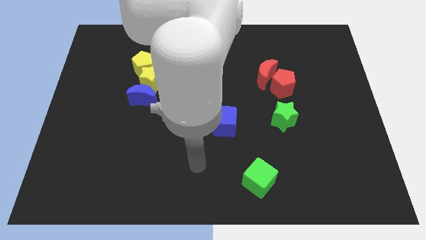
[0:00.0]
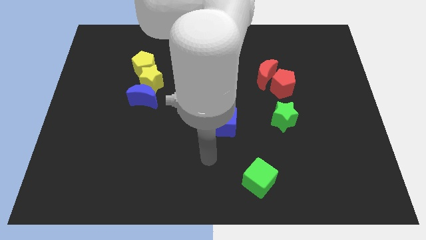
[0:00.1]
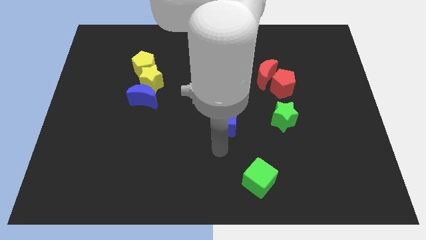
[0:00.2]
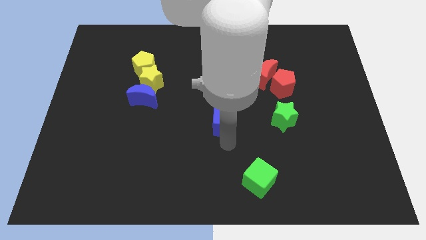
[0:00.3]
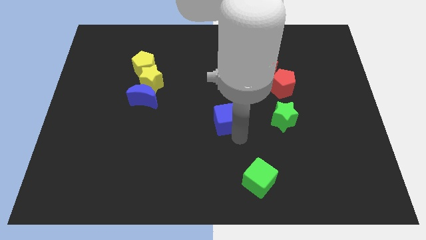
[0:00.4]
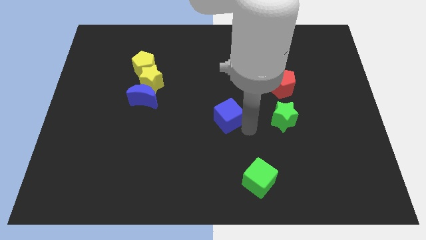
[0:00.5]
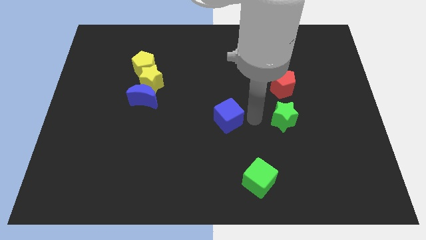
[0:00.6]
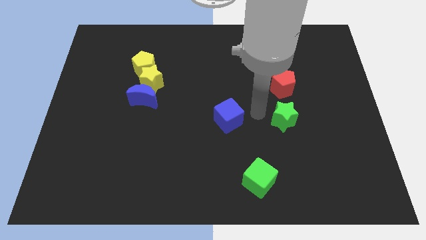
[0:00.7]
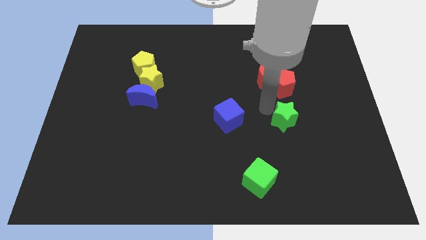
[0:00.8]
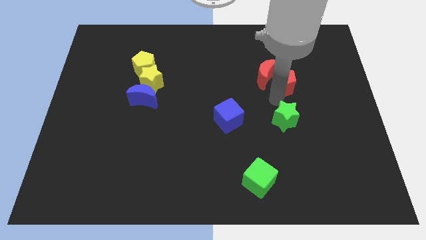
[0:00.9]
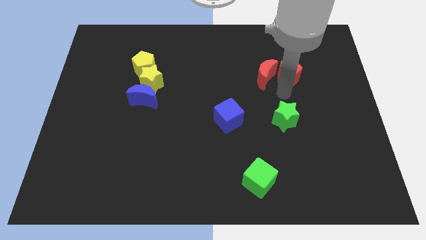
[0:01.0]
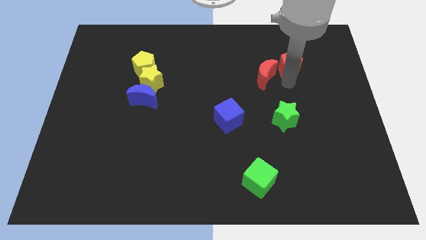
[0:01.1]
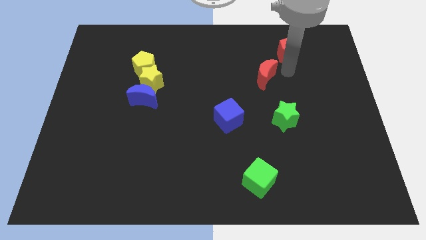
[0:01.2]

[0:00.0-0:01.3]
pull the red moon apart from the red pentagon

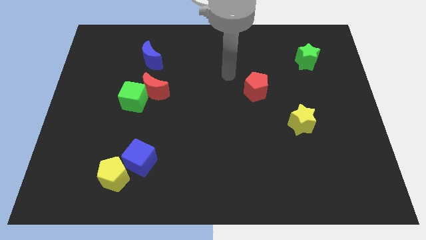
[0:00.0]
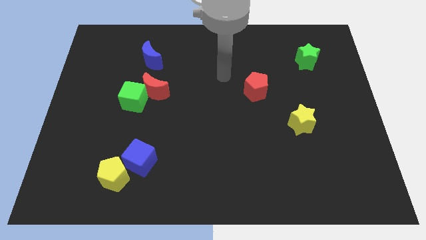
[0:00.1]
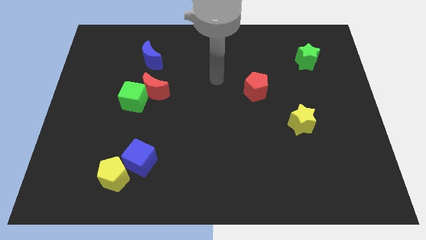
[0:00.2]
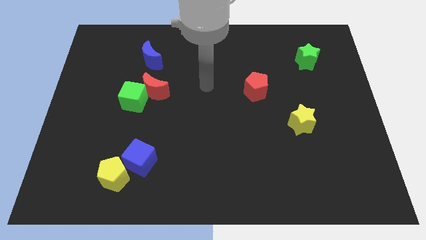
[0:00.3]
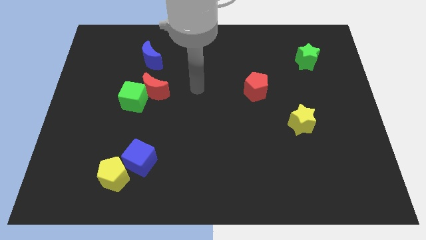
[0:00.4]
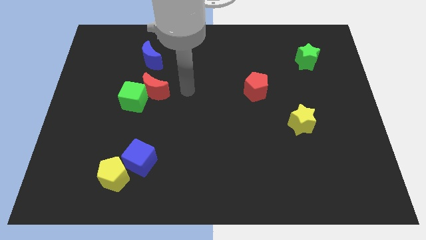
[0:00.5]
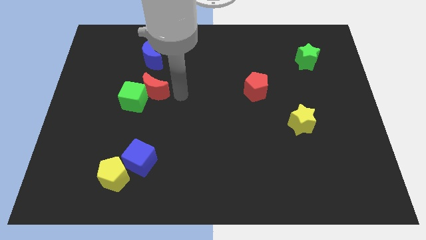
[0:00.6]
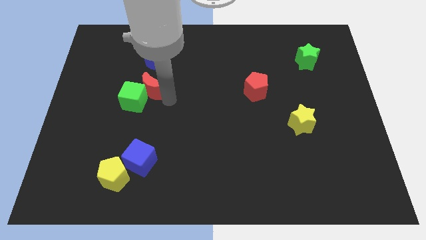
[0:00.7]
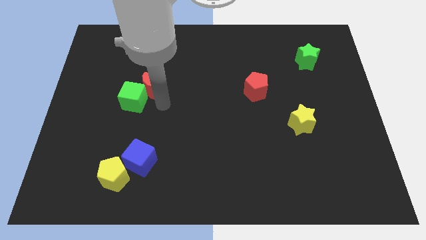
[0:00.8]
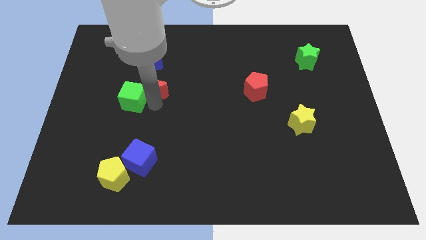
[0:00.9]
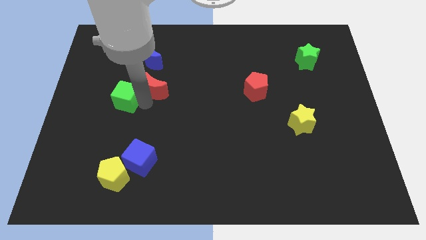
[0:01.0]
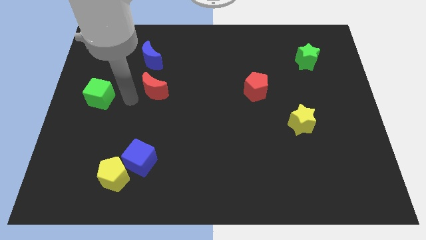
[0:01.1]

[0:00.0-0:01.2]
move the red moon away from the green cube

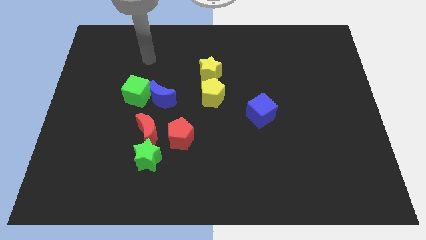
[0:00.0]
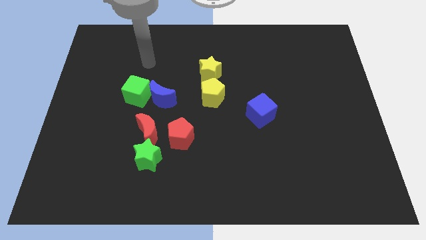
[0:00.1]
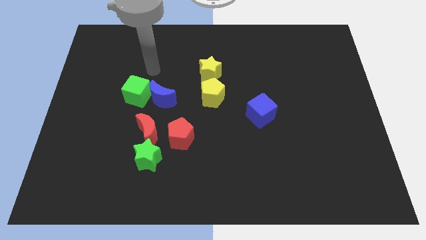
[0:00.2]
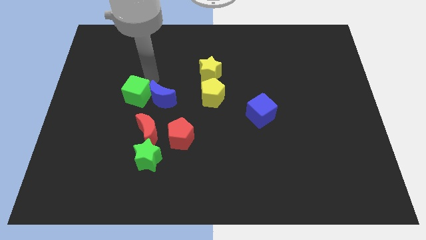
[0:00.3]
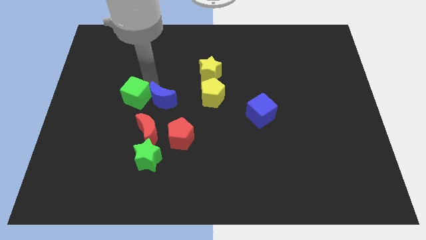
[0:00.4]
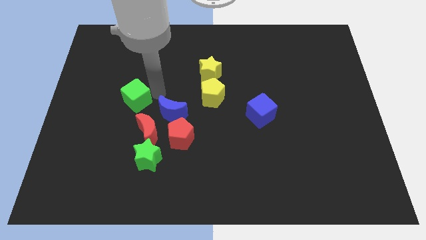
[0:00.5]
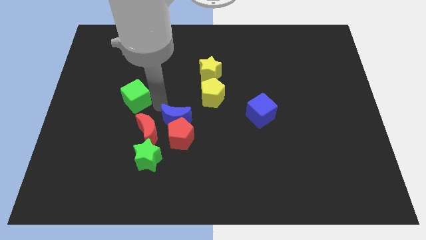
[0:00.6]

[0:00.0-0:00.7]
move the green cube away from the blue moon

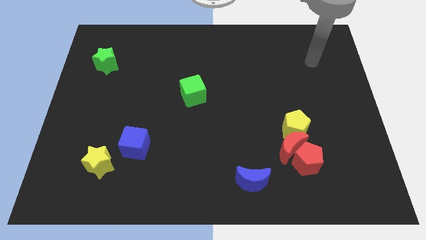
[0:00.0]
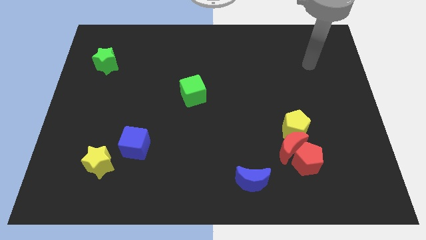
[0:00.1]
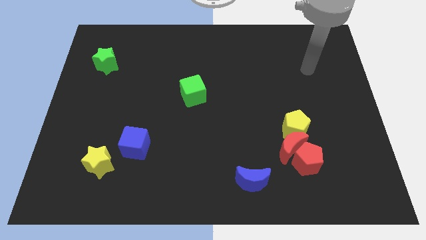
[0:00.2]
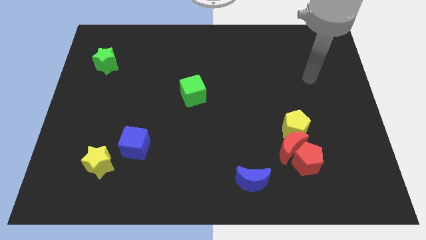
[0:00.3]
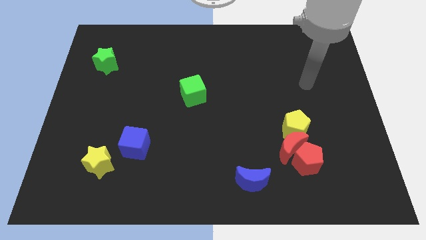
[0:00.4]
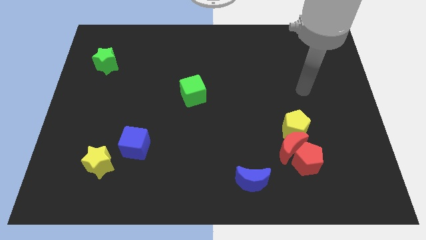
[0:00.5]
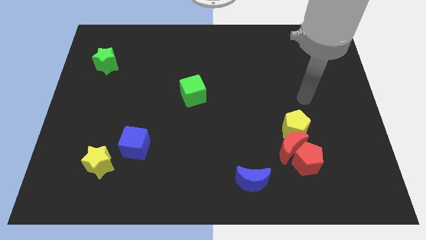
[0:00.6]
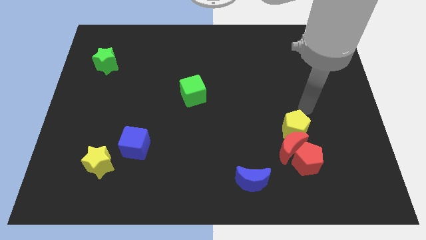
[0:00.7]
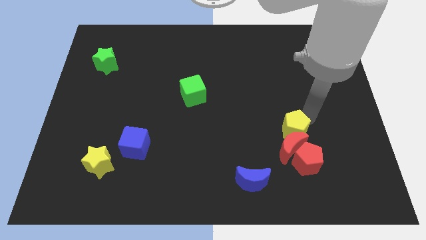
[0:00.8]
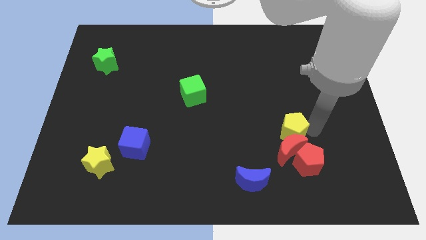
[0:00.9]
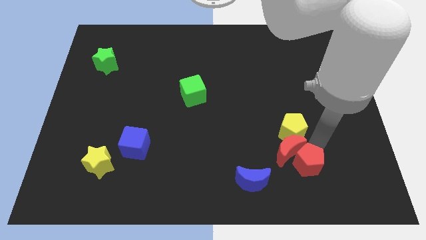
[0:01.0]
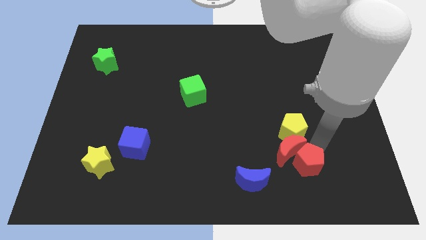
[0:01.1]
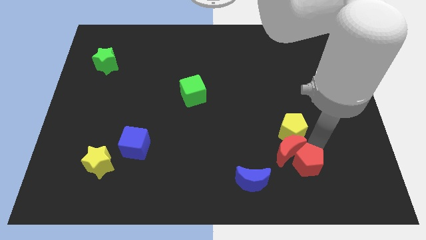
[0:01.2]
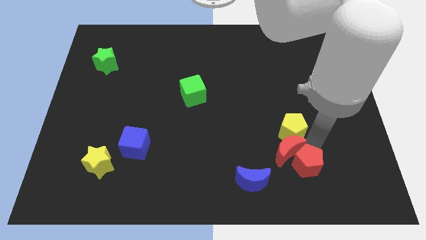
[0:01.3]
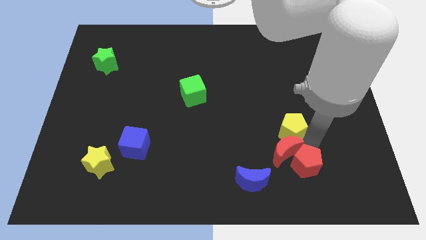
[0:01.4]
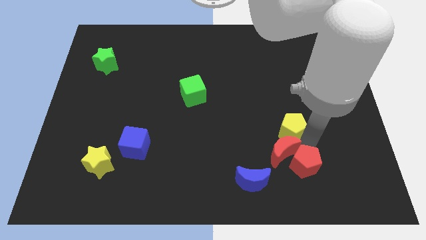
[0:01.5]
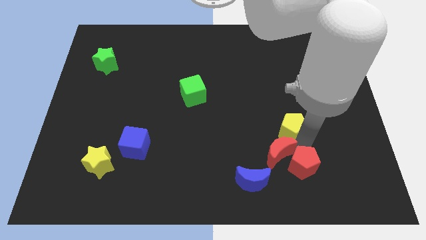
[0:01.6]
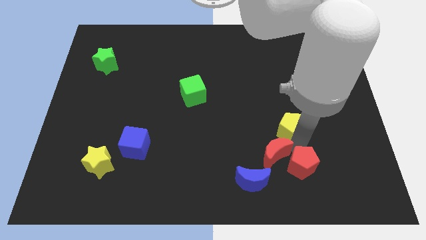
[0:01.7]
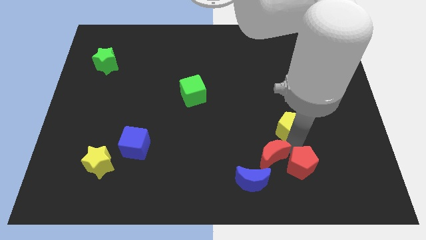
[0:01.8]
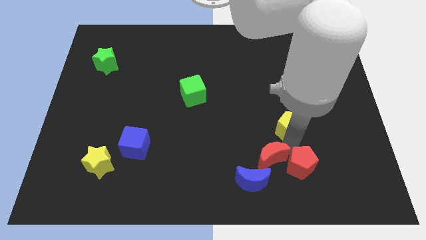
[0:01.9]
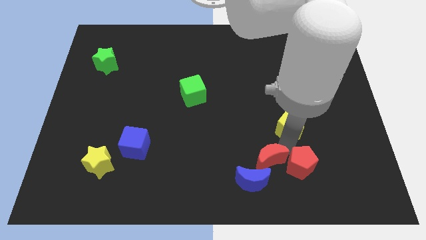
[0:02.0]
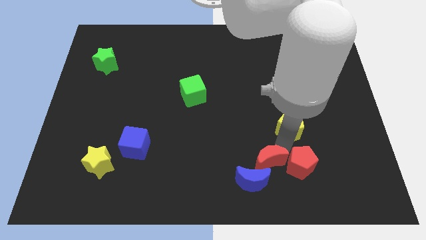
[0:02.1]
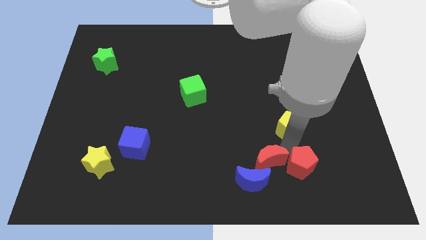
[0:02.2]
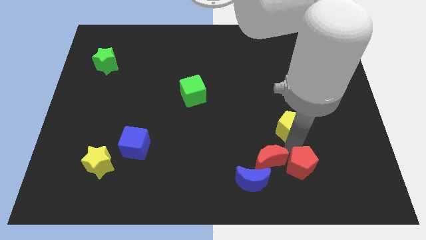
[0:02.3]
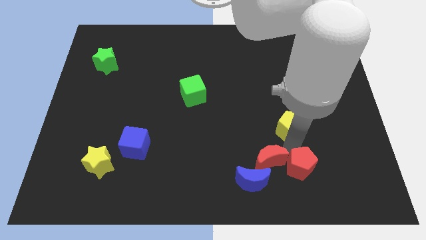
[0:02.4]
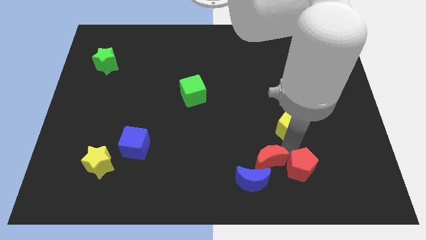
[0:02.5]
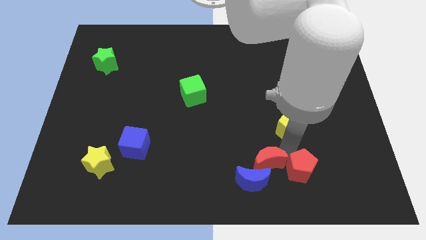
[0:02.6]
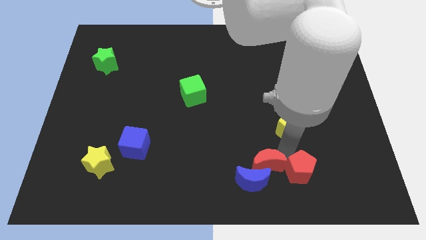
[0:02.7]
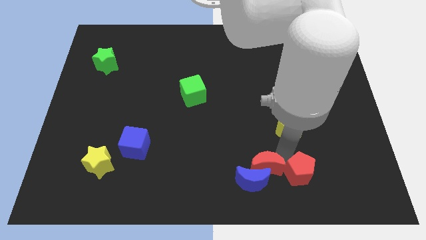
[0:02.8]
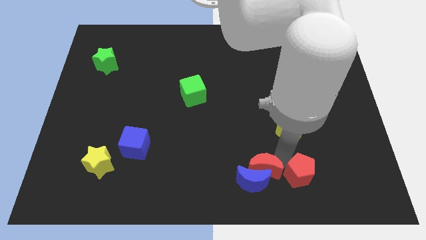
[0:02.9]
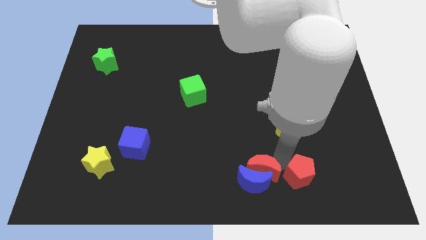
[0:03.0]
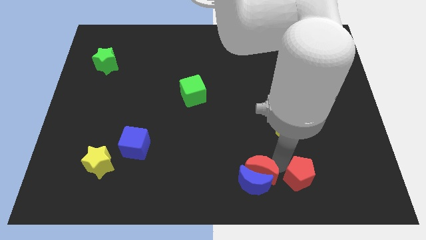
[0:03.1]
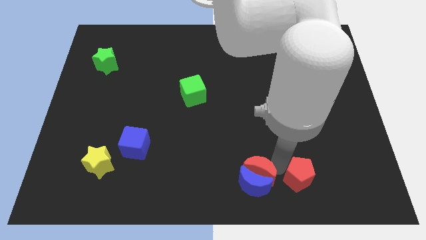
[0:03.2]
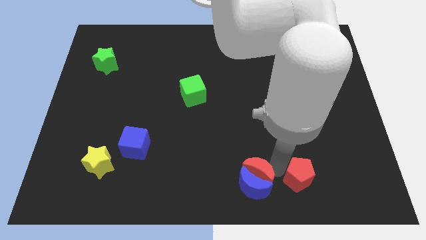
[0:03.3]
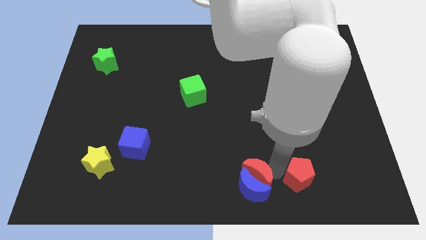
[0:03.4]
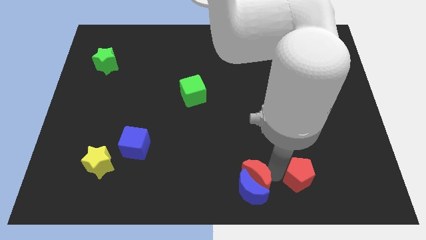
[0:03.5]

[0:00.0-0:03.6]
separate the red moon from the red pentagon and yellow pentagon

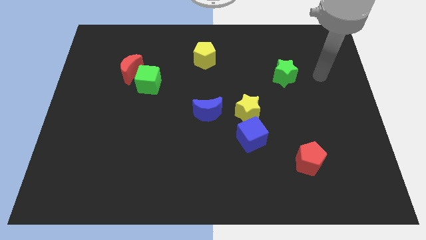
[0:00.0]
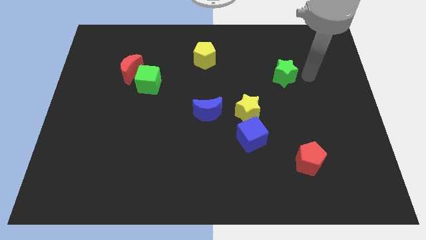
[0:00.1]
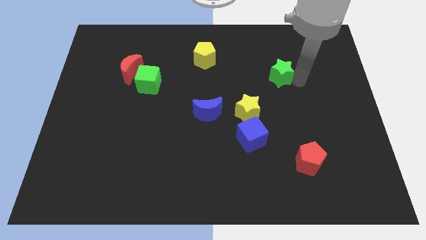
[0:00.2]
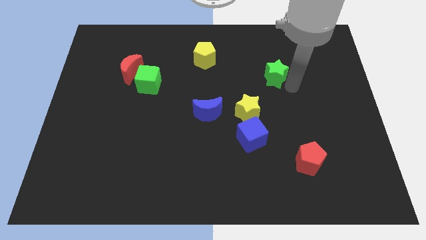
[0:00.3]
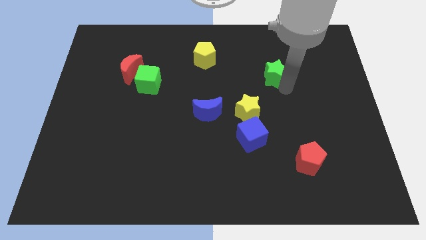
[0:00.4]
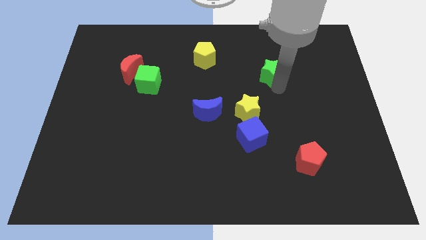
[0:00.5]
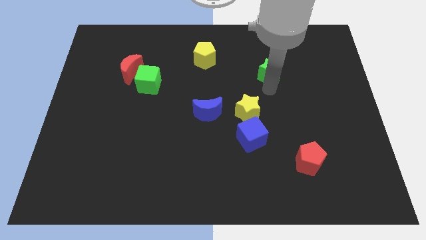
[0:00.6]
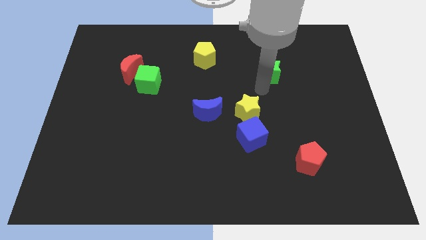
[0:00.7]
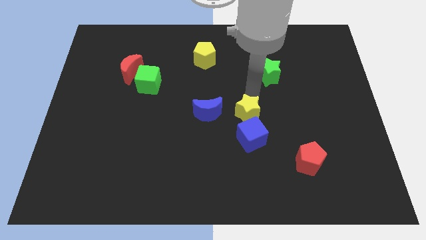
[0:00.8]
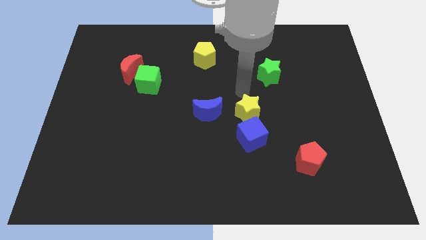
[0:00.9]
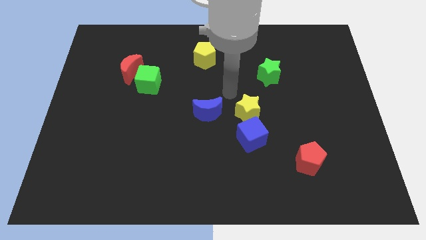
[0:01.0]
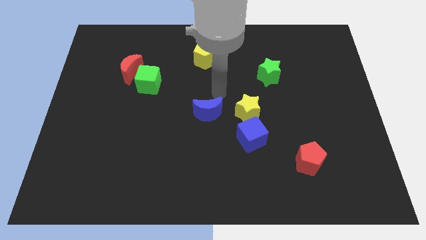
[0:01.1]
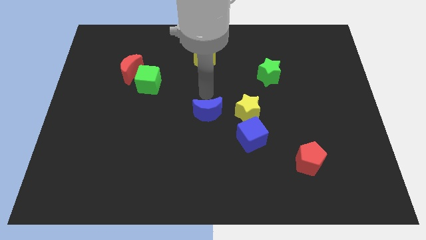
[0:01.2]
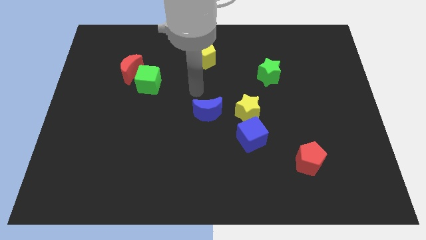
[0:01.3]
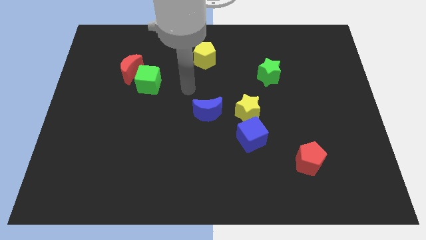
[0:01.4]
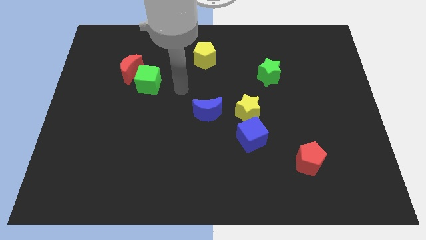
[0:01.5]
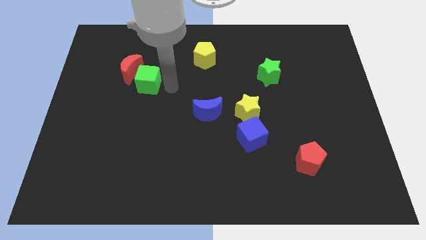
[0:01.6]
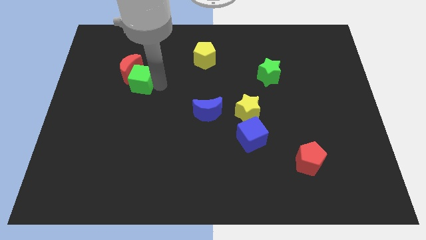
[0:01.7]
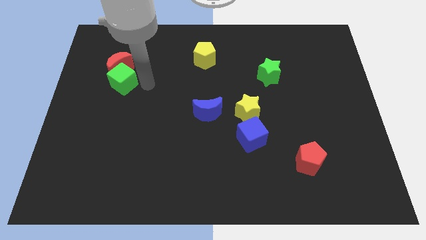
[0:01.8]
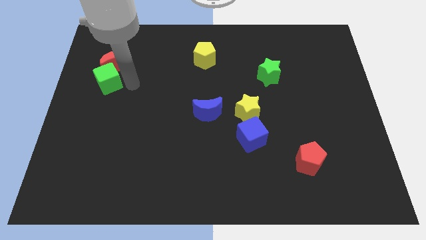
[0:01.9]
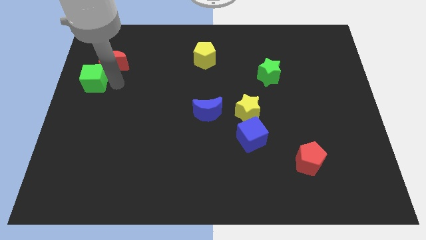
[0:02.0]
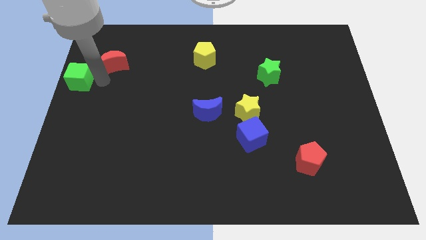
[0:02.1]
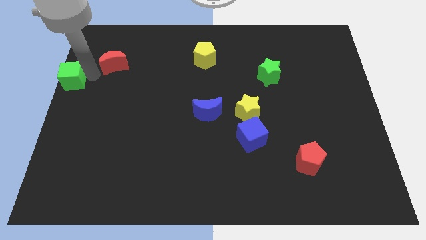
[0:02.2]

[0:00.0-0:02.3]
separate the red moon from the green cube

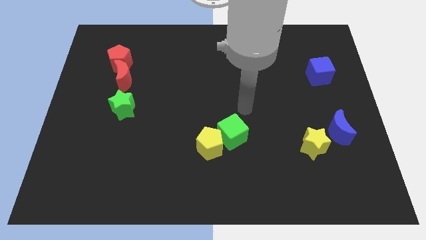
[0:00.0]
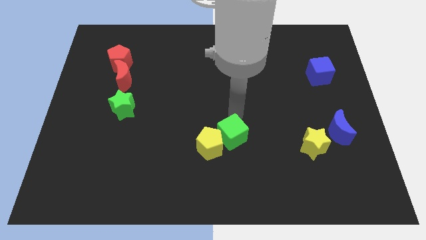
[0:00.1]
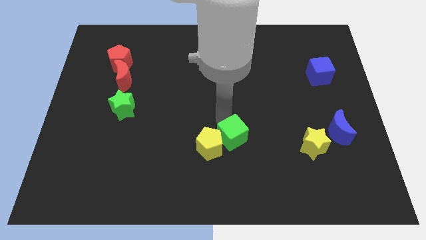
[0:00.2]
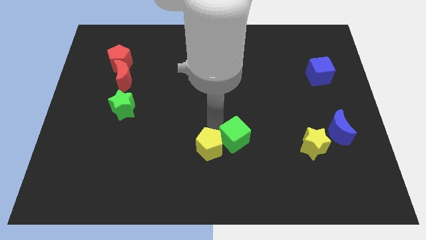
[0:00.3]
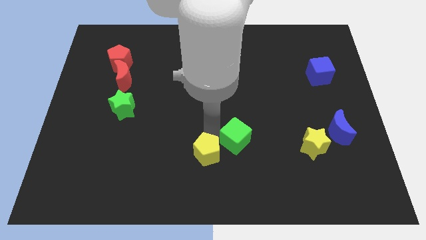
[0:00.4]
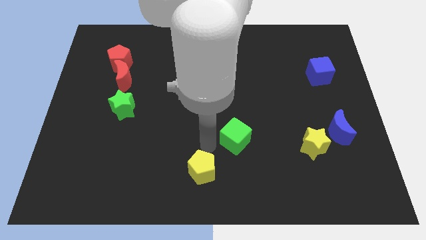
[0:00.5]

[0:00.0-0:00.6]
separate the green cube from the yellow pentagon
